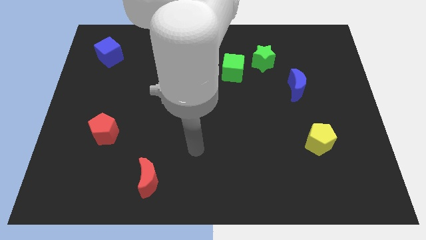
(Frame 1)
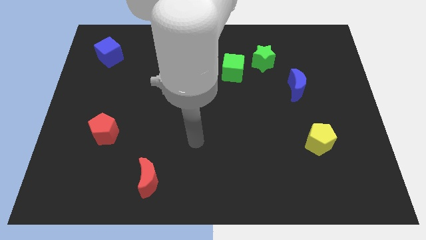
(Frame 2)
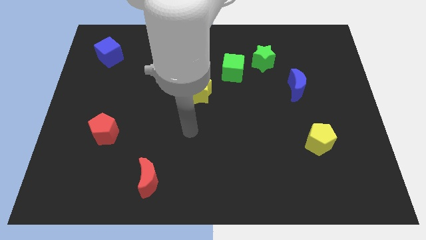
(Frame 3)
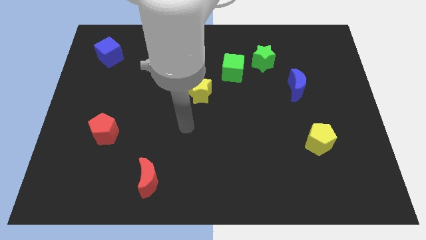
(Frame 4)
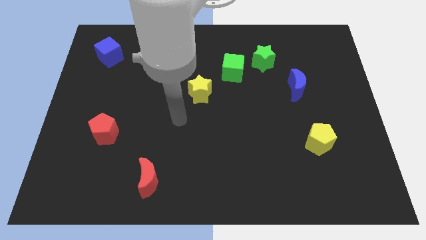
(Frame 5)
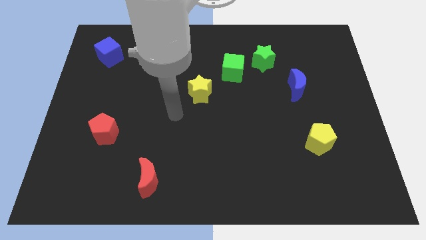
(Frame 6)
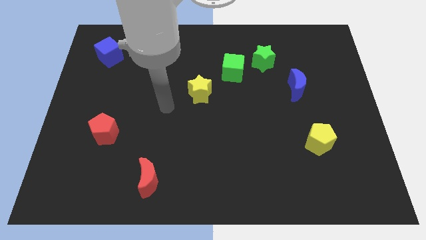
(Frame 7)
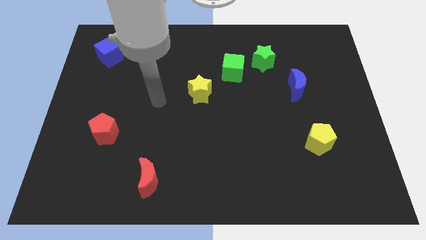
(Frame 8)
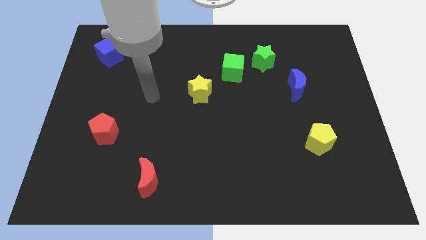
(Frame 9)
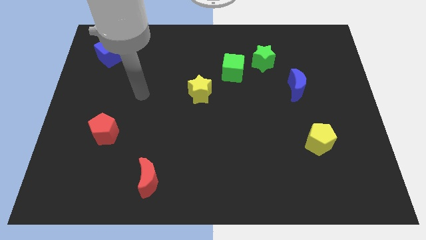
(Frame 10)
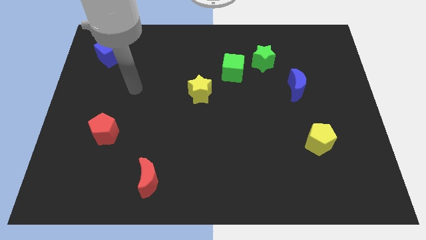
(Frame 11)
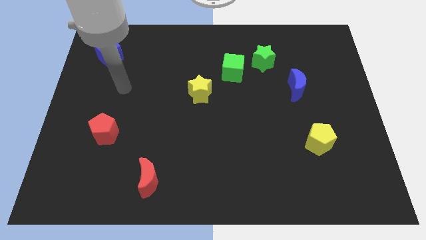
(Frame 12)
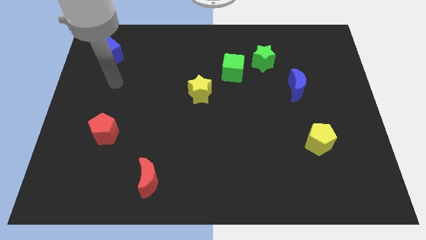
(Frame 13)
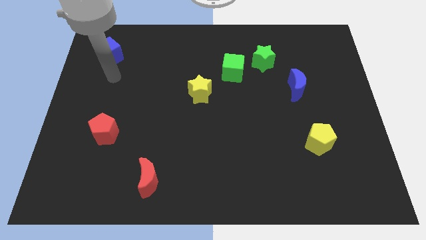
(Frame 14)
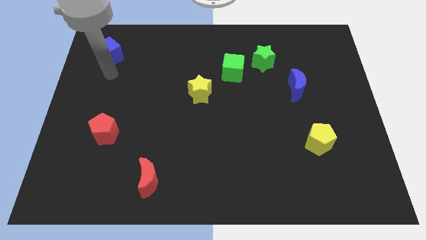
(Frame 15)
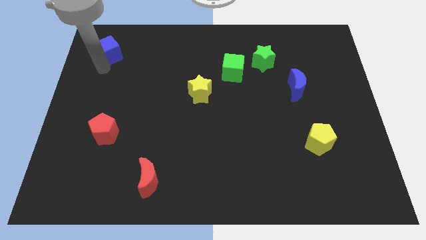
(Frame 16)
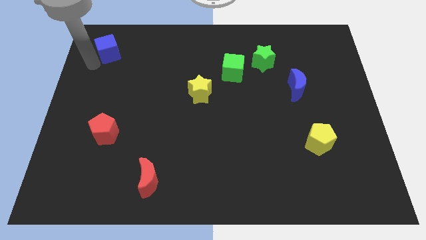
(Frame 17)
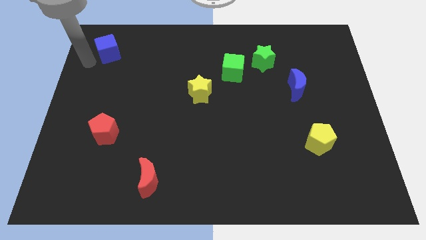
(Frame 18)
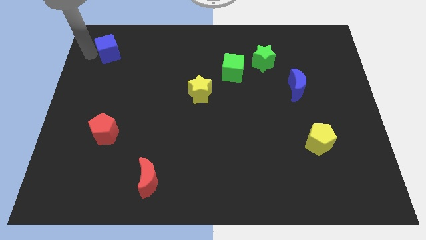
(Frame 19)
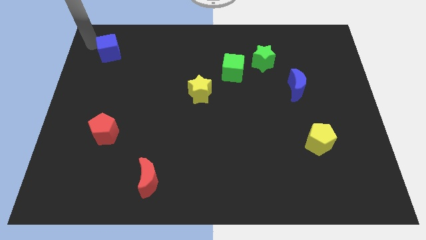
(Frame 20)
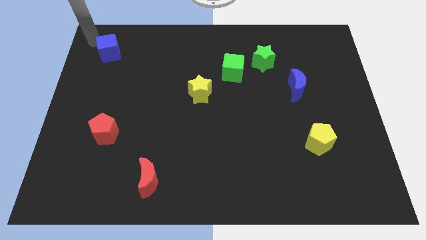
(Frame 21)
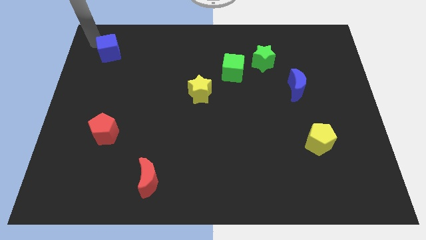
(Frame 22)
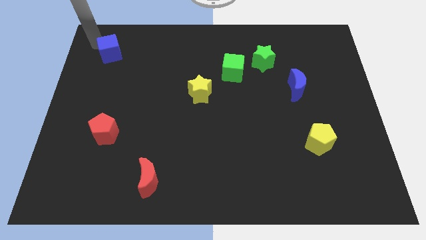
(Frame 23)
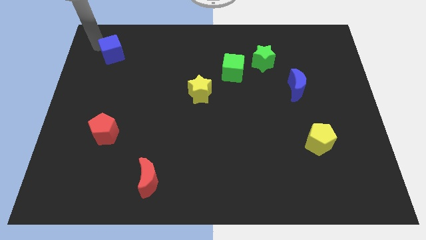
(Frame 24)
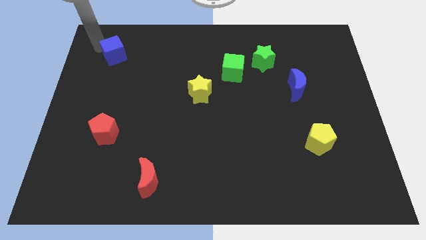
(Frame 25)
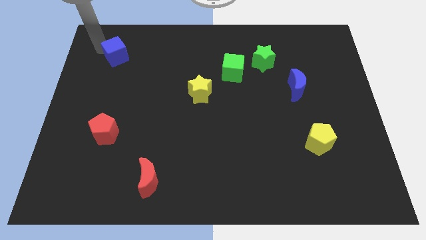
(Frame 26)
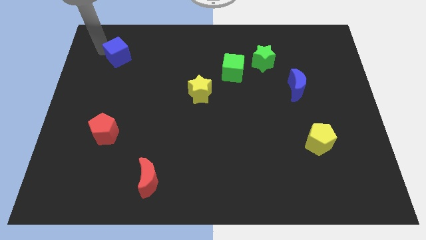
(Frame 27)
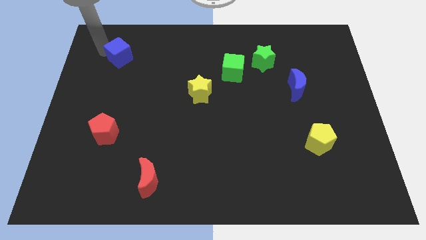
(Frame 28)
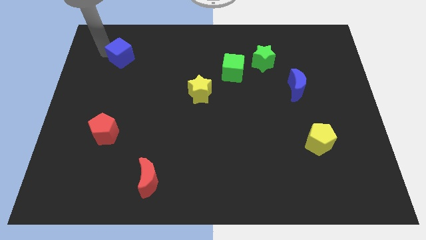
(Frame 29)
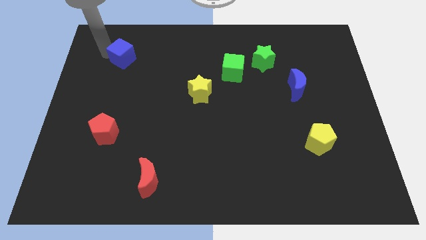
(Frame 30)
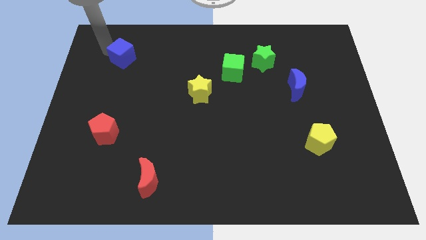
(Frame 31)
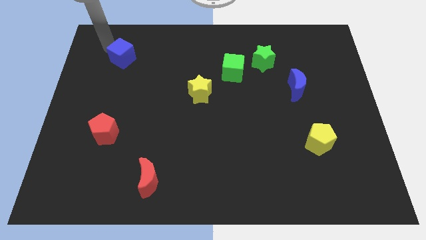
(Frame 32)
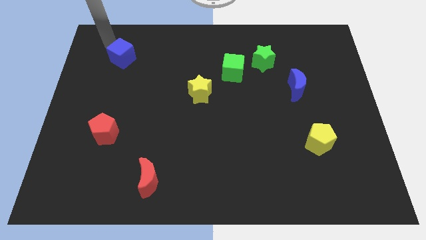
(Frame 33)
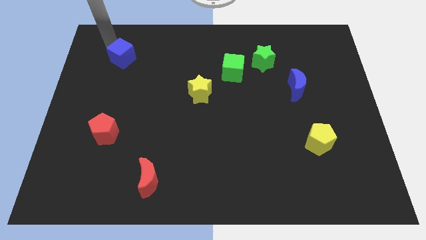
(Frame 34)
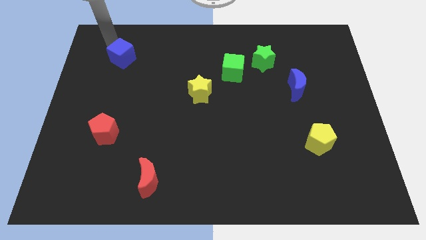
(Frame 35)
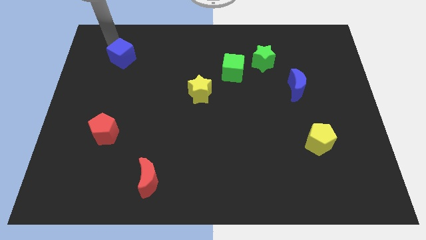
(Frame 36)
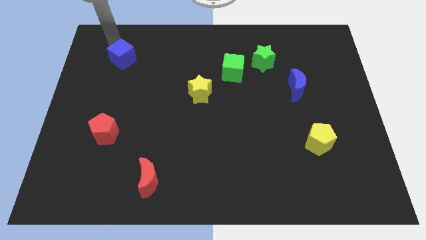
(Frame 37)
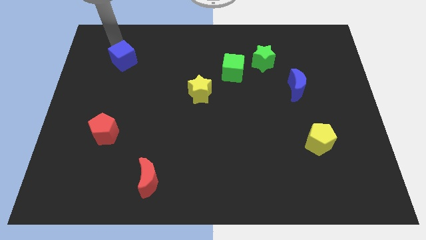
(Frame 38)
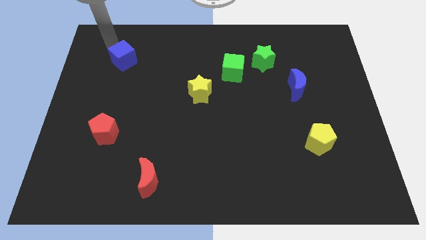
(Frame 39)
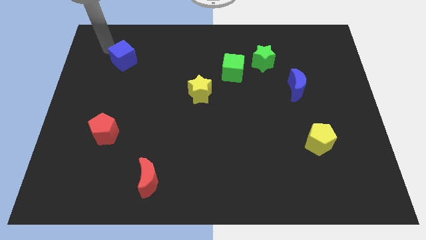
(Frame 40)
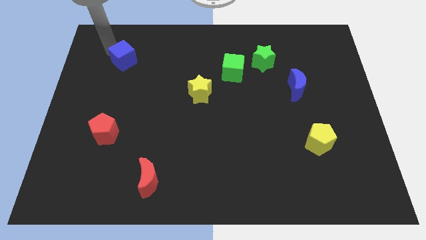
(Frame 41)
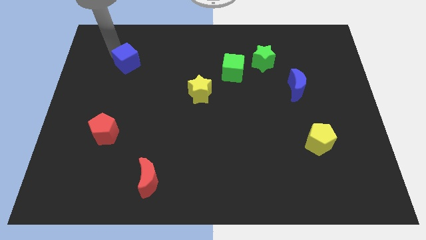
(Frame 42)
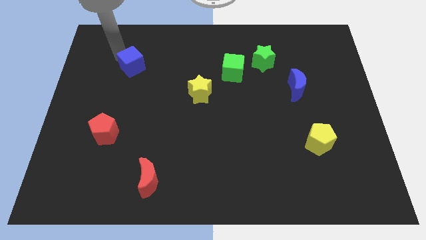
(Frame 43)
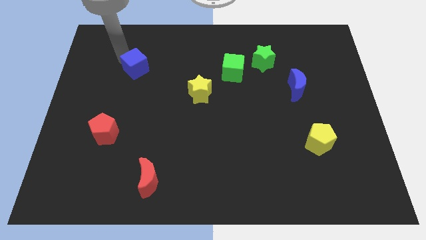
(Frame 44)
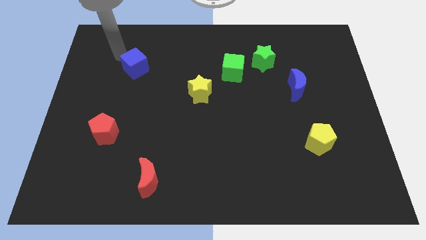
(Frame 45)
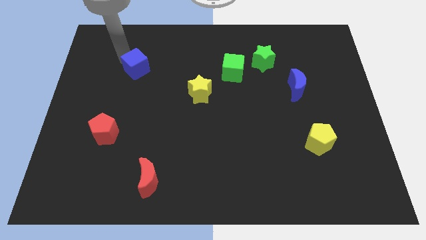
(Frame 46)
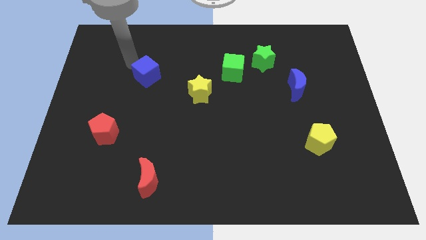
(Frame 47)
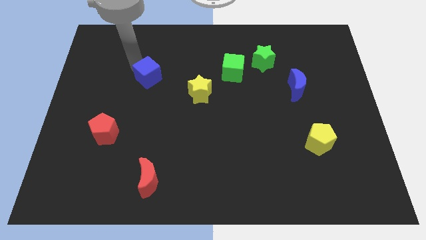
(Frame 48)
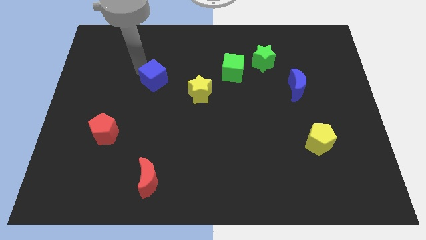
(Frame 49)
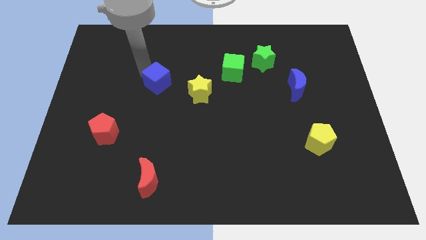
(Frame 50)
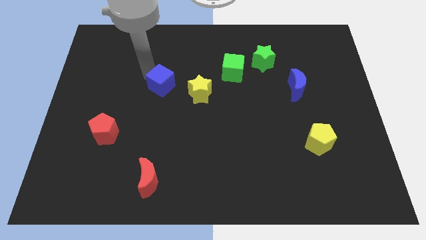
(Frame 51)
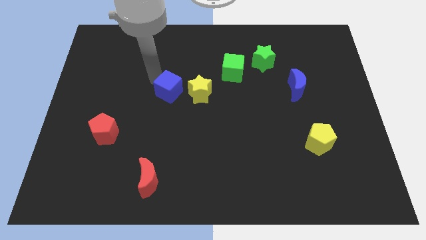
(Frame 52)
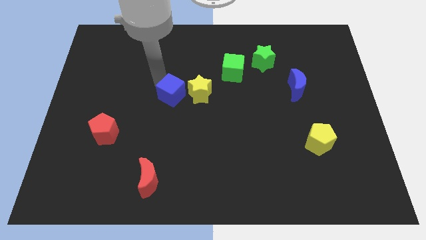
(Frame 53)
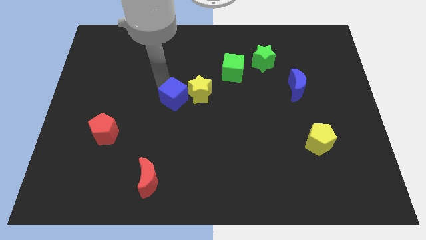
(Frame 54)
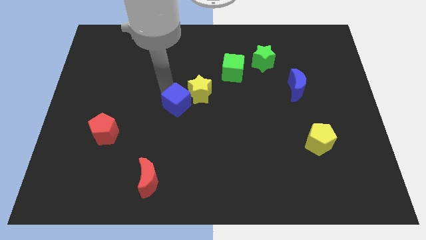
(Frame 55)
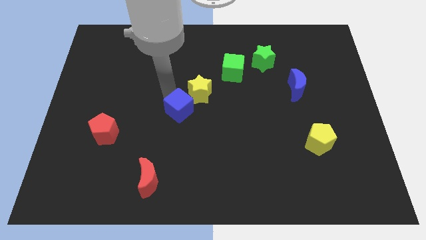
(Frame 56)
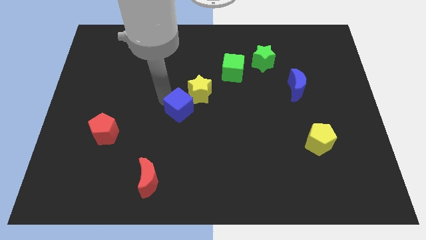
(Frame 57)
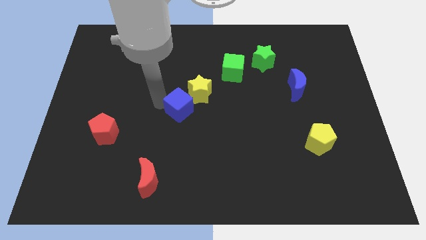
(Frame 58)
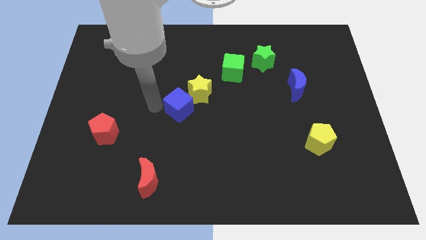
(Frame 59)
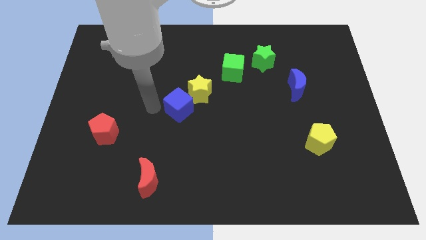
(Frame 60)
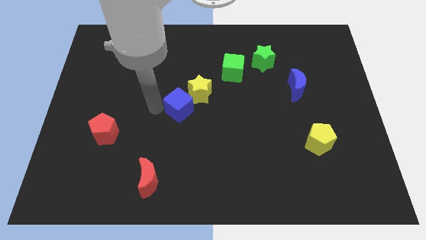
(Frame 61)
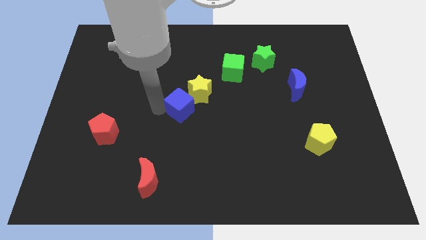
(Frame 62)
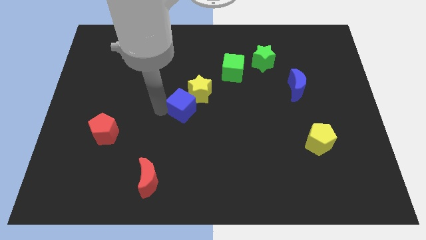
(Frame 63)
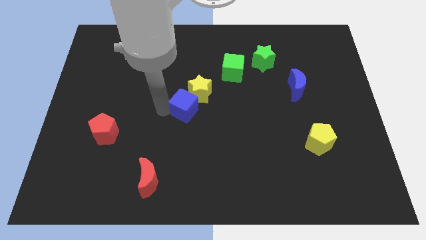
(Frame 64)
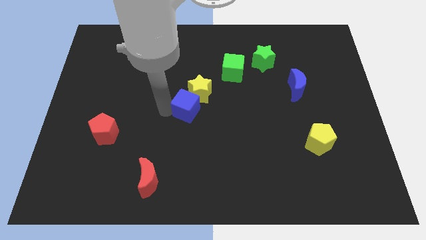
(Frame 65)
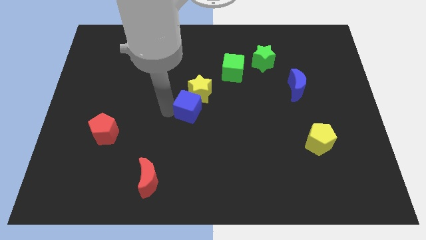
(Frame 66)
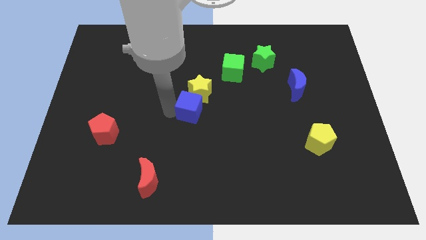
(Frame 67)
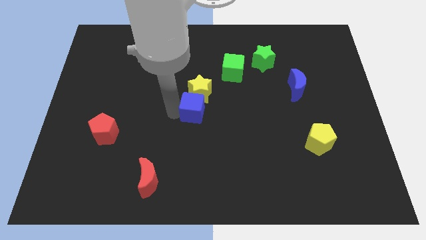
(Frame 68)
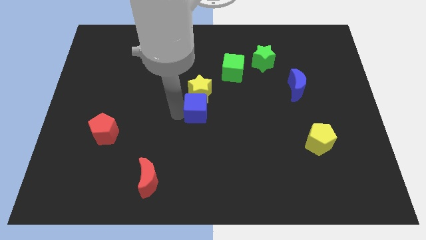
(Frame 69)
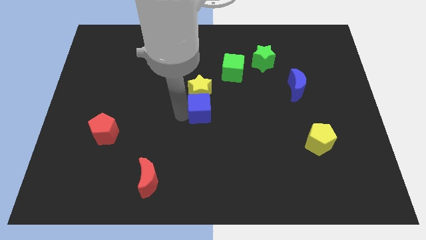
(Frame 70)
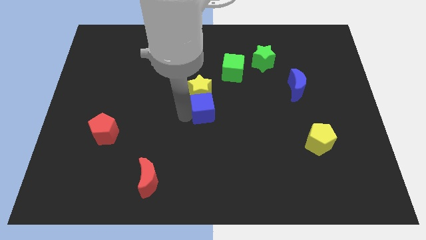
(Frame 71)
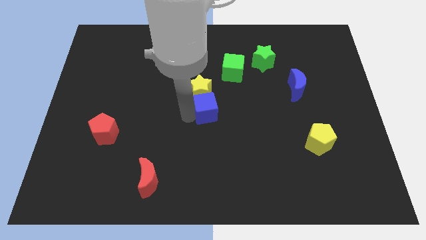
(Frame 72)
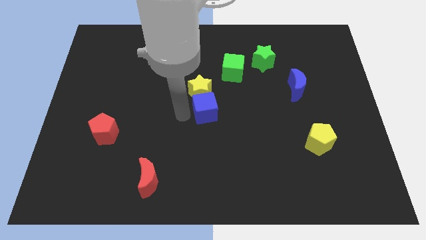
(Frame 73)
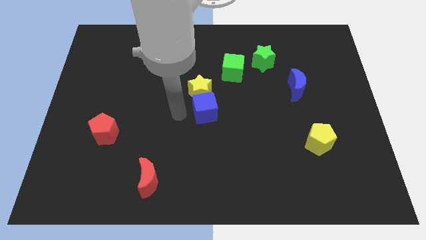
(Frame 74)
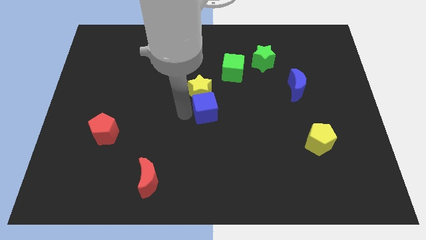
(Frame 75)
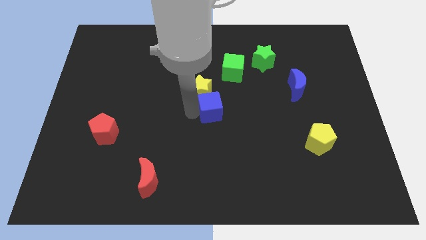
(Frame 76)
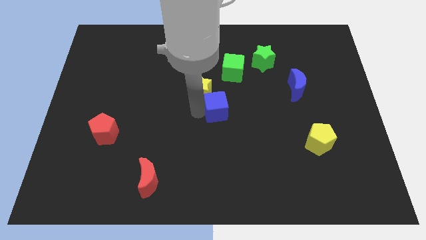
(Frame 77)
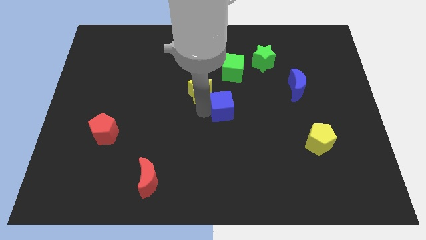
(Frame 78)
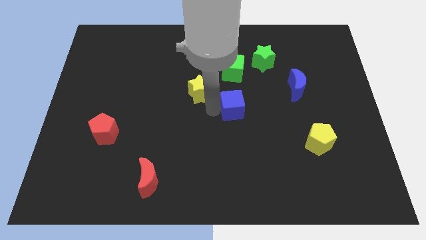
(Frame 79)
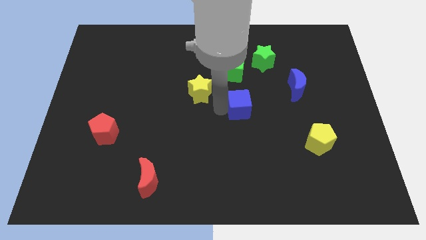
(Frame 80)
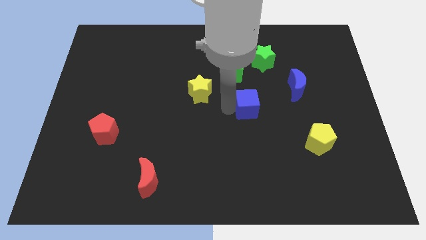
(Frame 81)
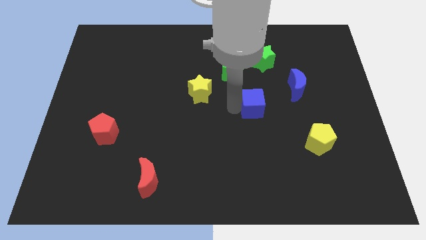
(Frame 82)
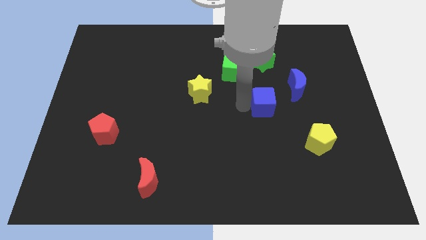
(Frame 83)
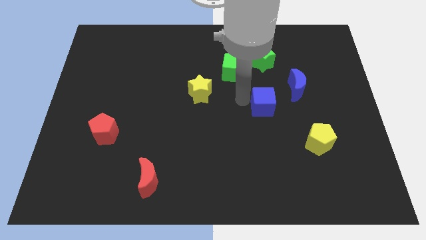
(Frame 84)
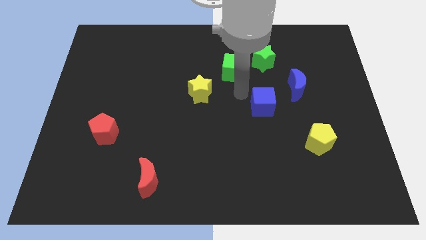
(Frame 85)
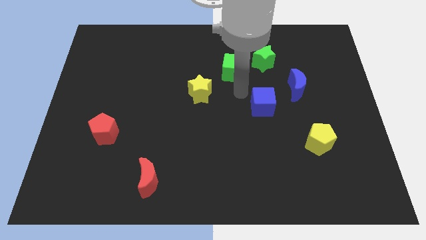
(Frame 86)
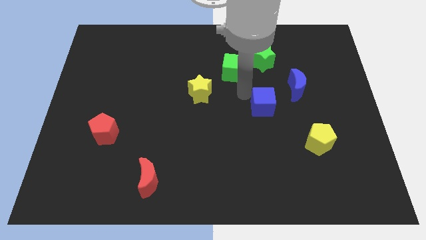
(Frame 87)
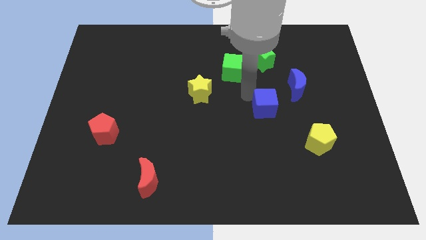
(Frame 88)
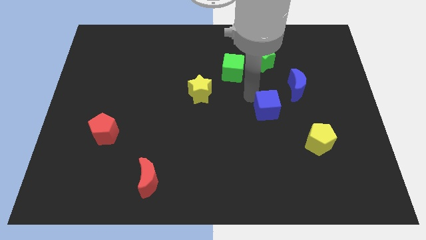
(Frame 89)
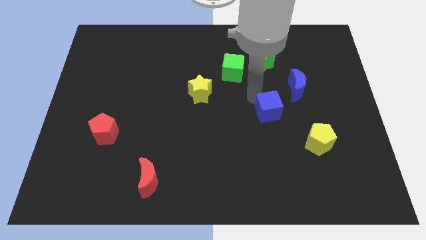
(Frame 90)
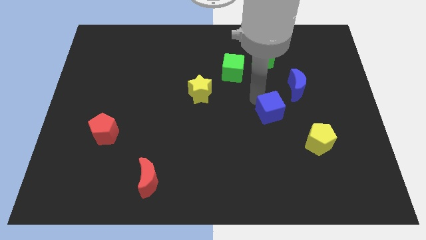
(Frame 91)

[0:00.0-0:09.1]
push the blue cube to the top left of the yellow pentagon
